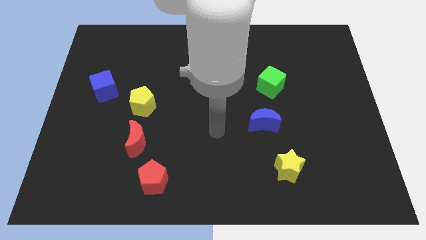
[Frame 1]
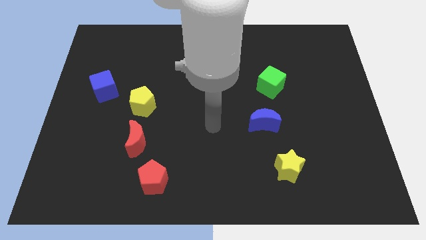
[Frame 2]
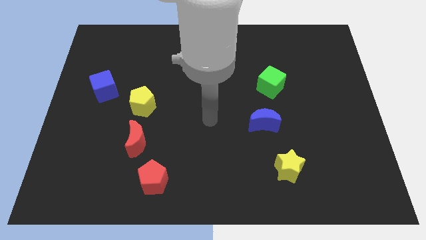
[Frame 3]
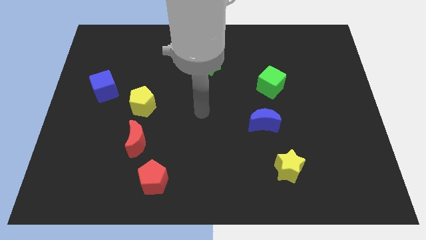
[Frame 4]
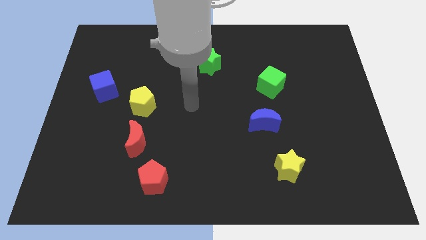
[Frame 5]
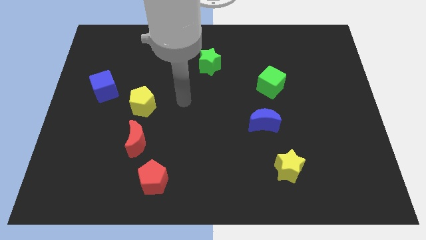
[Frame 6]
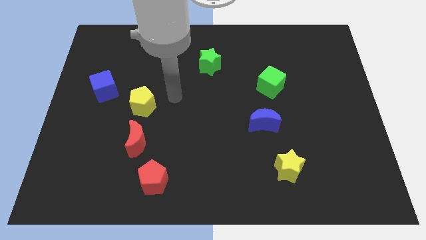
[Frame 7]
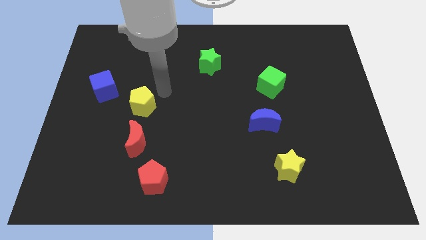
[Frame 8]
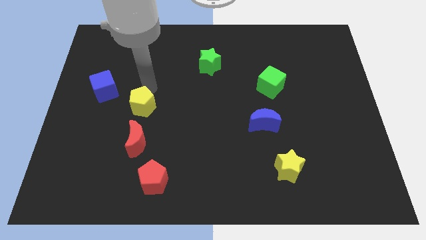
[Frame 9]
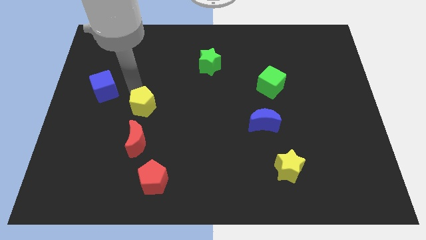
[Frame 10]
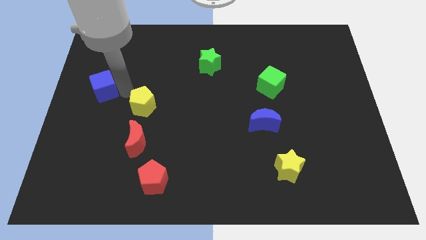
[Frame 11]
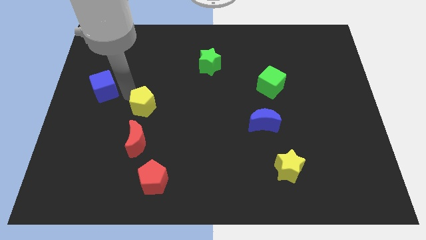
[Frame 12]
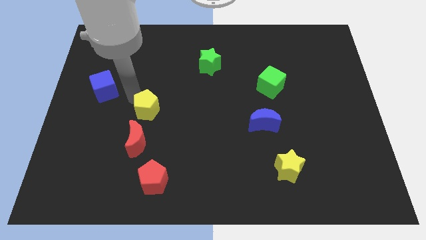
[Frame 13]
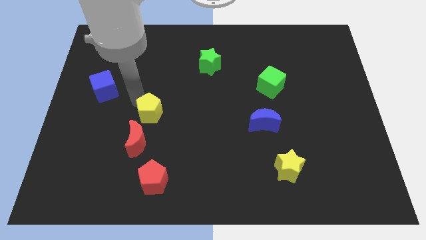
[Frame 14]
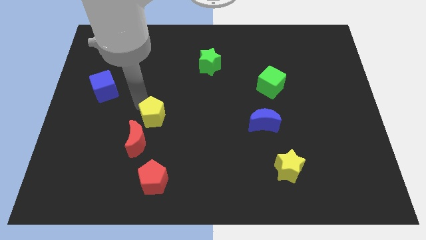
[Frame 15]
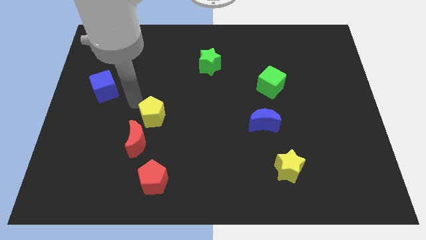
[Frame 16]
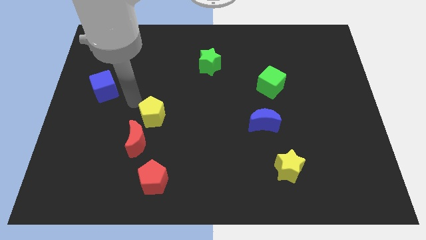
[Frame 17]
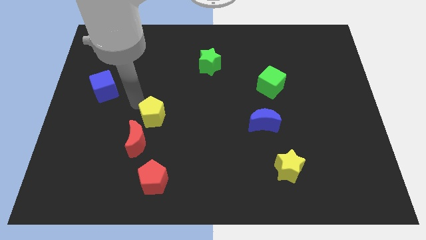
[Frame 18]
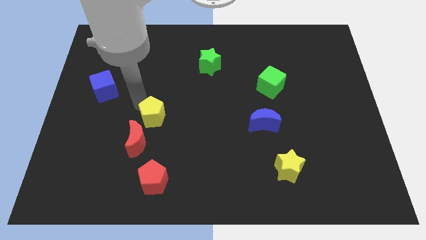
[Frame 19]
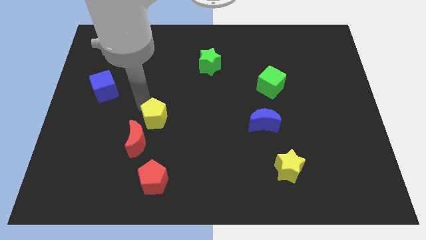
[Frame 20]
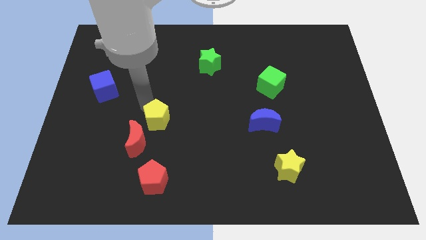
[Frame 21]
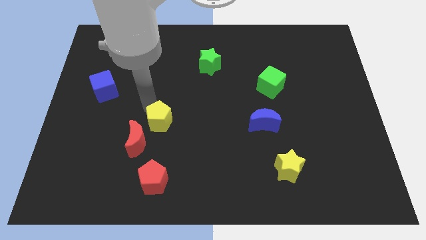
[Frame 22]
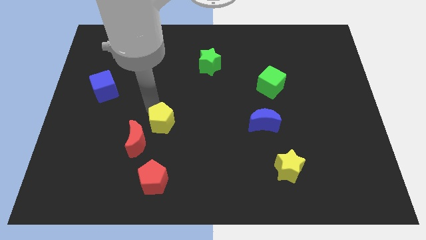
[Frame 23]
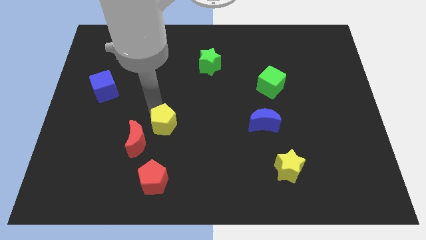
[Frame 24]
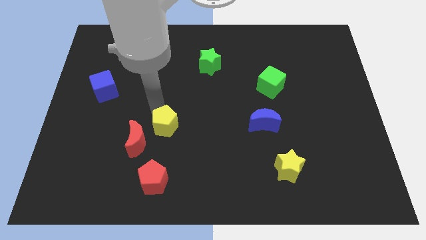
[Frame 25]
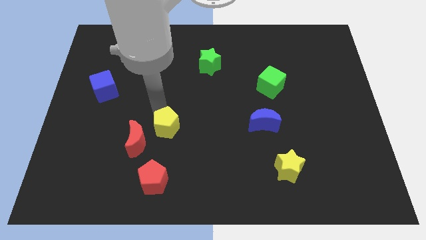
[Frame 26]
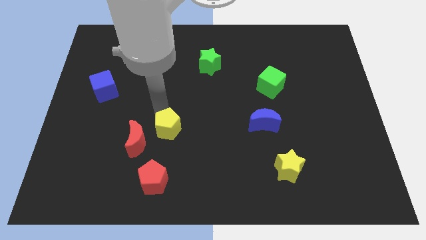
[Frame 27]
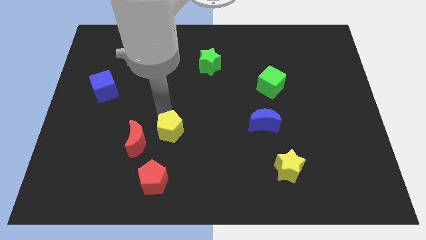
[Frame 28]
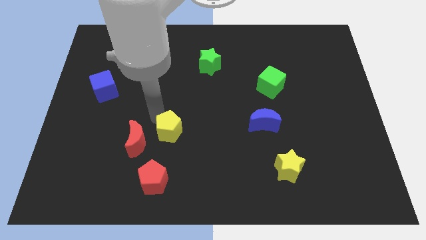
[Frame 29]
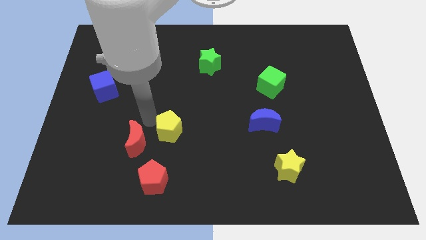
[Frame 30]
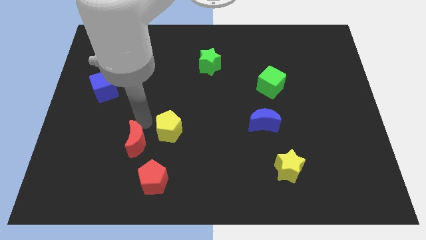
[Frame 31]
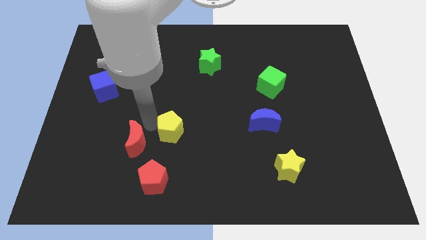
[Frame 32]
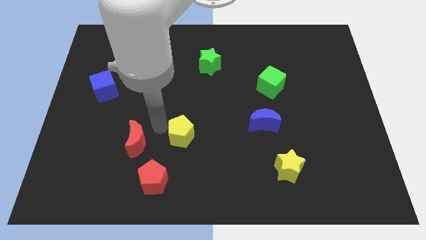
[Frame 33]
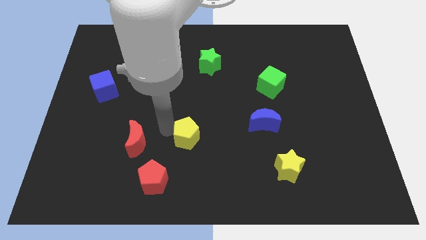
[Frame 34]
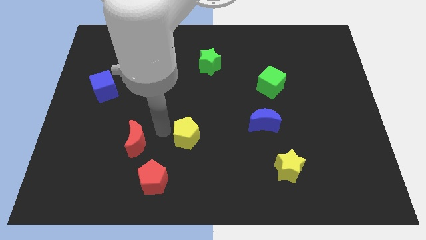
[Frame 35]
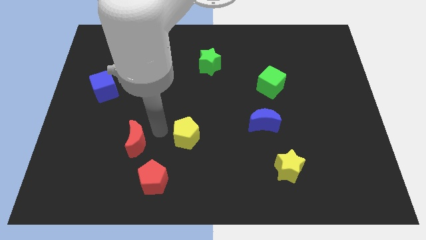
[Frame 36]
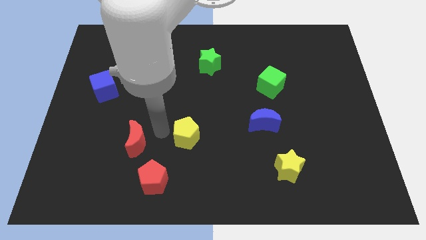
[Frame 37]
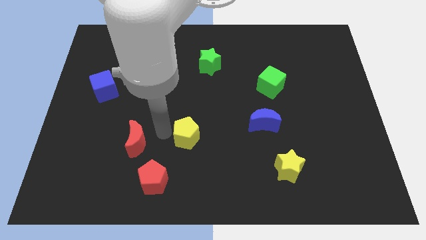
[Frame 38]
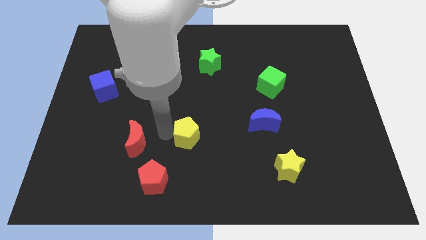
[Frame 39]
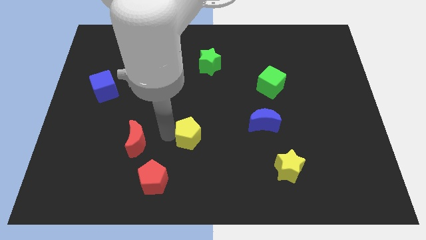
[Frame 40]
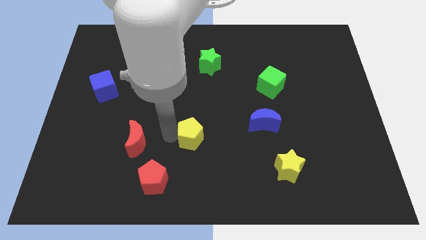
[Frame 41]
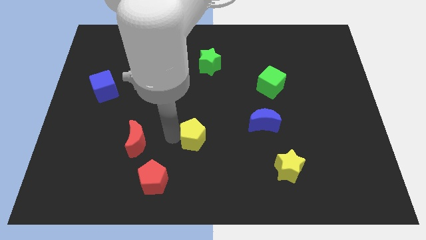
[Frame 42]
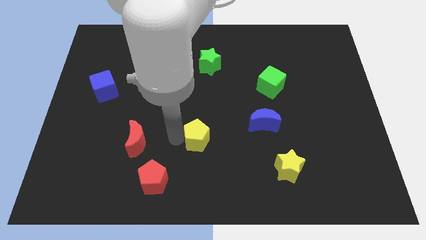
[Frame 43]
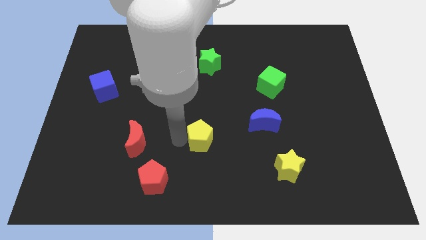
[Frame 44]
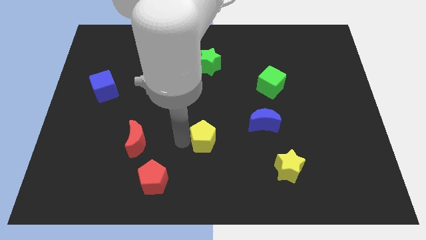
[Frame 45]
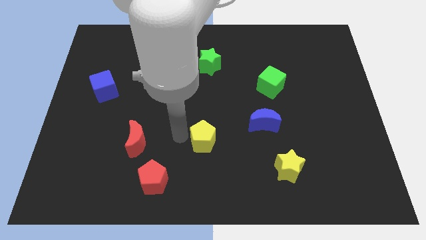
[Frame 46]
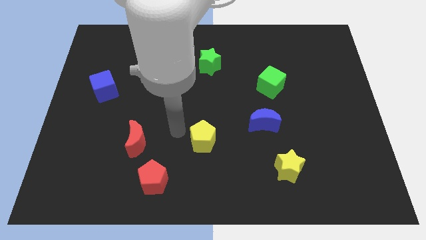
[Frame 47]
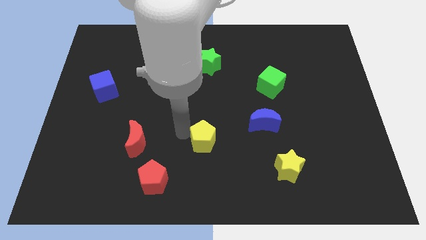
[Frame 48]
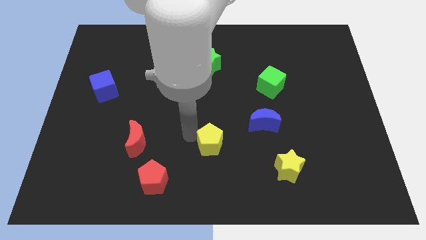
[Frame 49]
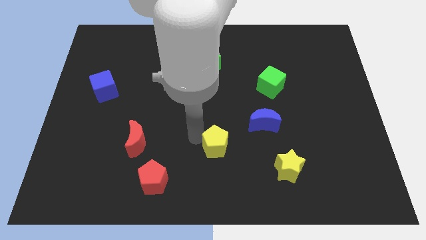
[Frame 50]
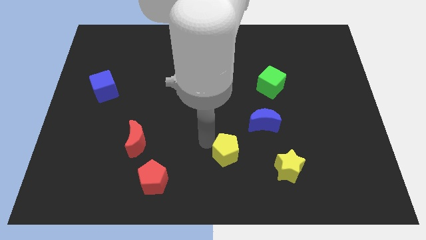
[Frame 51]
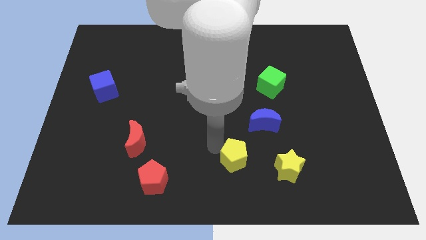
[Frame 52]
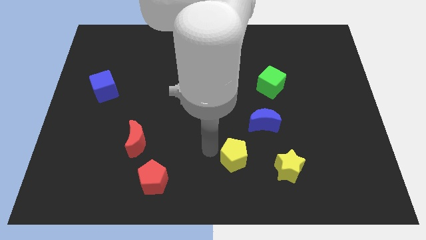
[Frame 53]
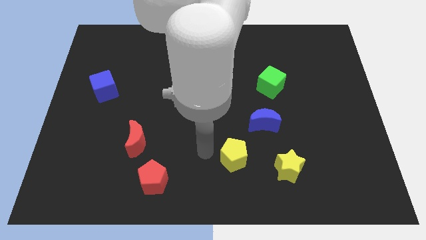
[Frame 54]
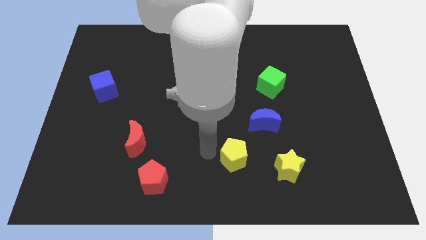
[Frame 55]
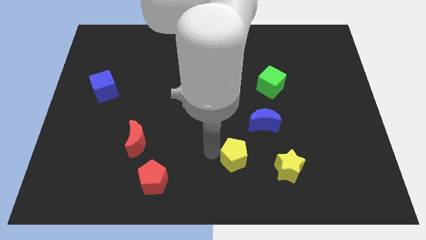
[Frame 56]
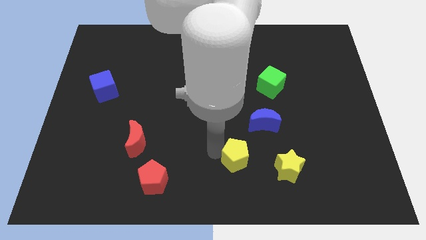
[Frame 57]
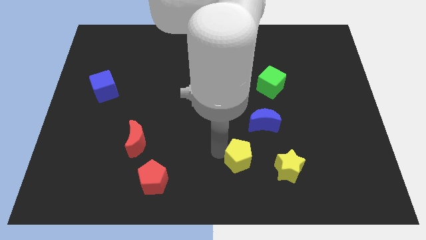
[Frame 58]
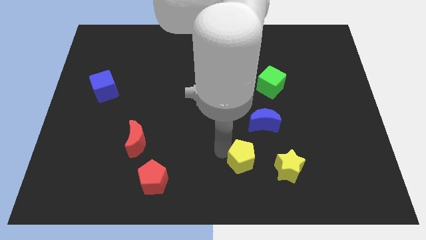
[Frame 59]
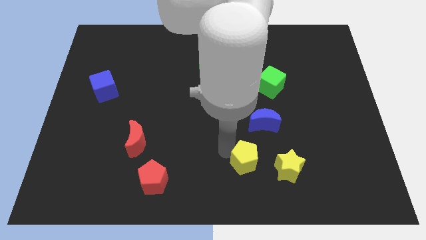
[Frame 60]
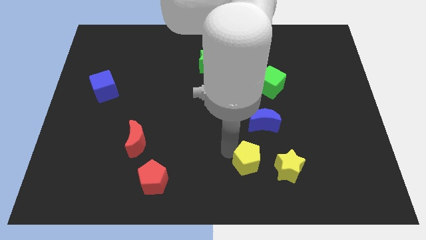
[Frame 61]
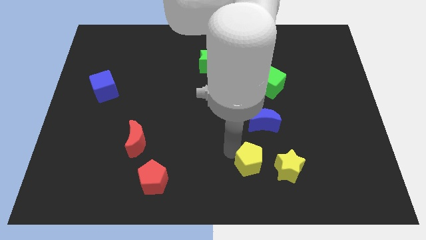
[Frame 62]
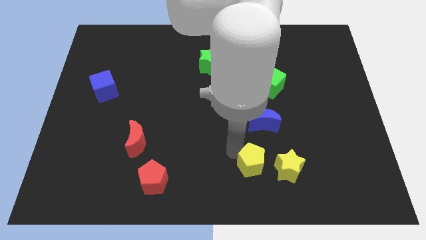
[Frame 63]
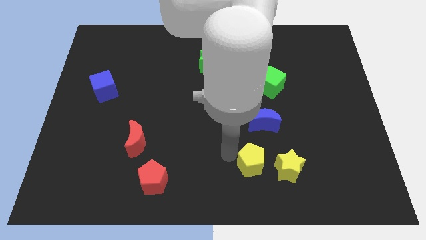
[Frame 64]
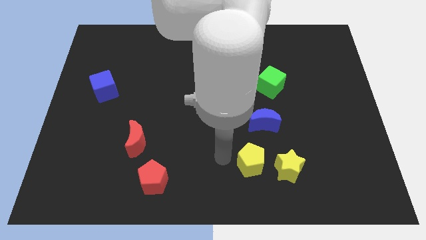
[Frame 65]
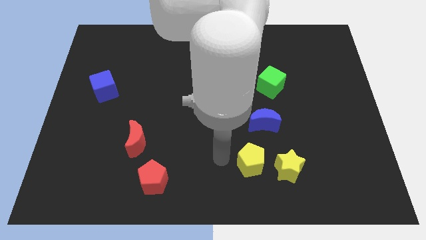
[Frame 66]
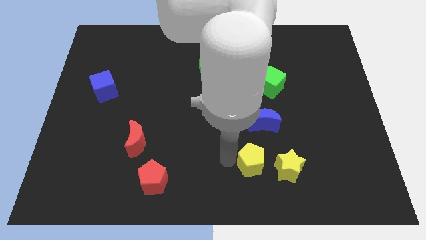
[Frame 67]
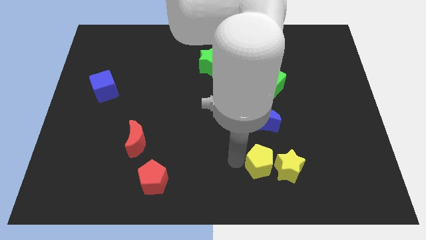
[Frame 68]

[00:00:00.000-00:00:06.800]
slide the yellow pentagon to the yellow star

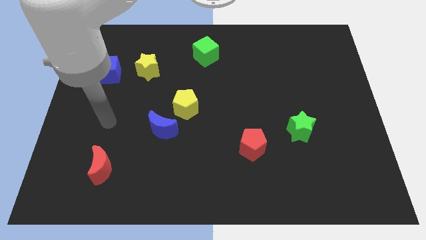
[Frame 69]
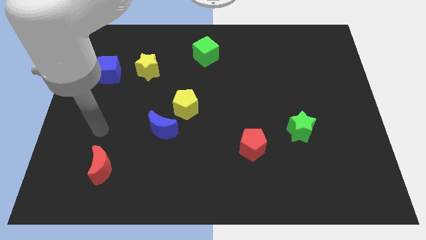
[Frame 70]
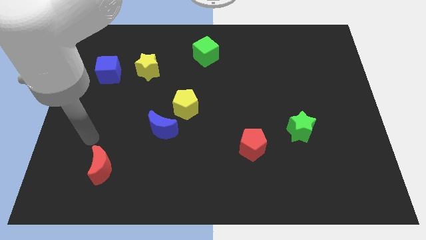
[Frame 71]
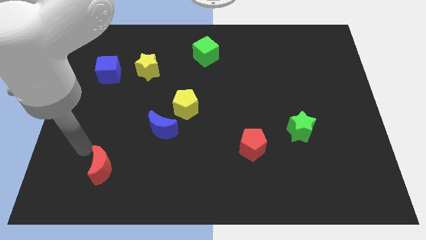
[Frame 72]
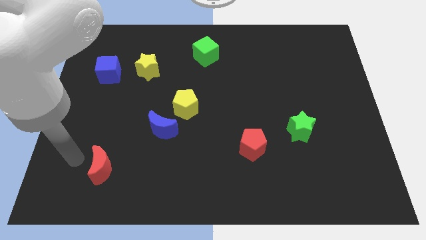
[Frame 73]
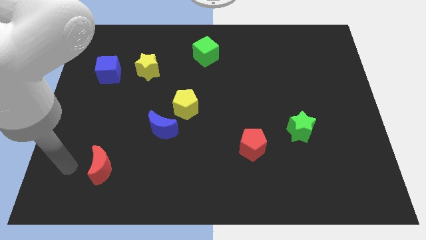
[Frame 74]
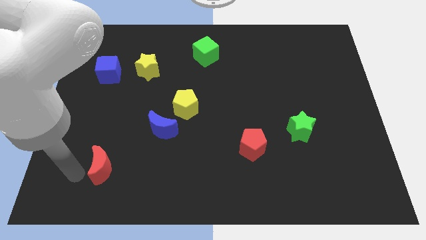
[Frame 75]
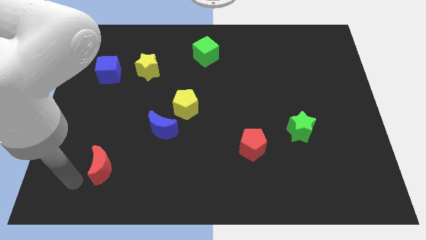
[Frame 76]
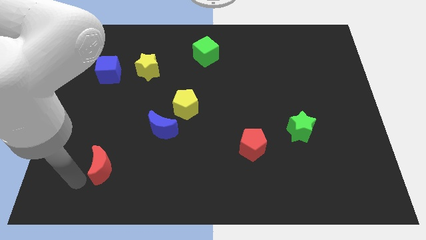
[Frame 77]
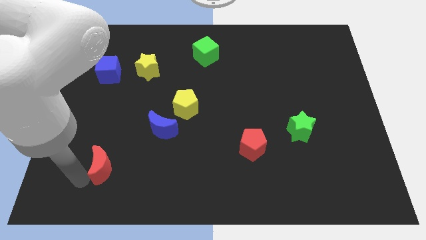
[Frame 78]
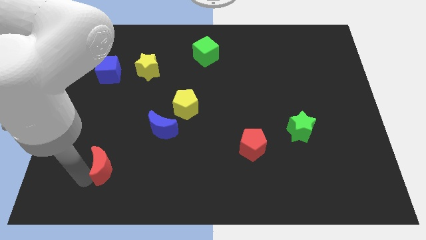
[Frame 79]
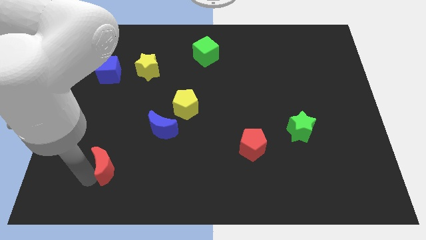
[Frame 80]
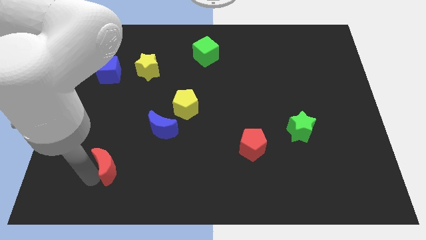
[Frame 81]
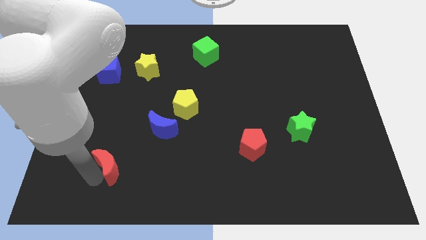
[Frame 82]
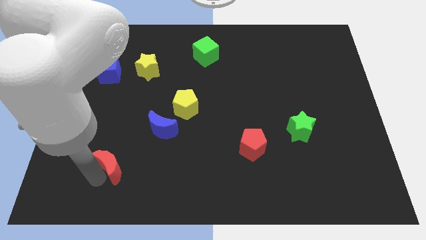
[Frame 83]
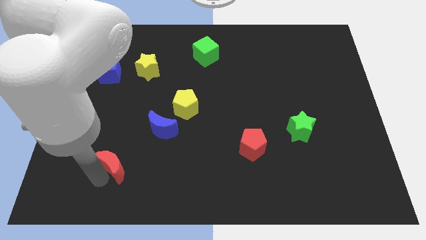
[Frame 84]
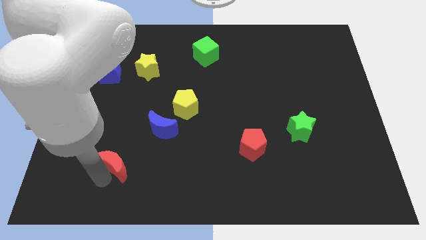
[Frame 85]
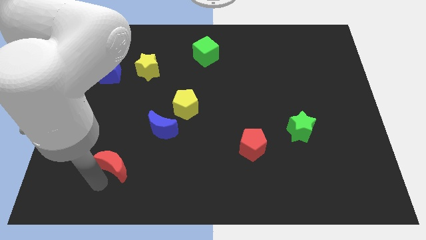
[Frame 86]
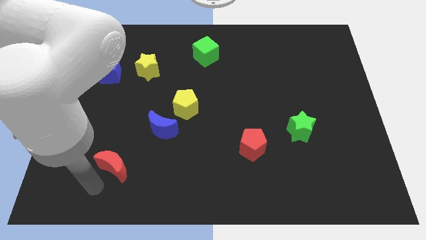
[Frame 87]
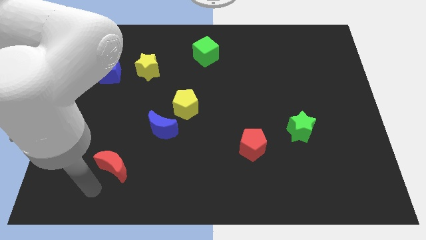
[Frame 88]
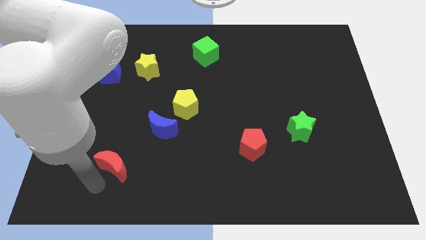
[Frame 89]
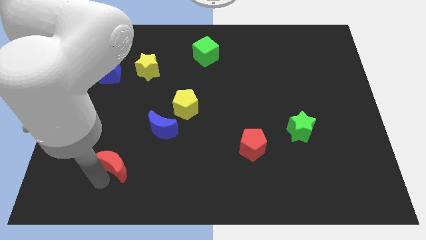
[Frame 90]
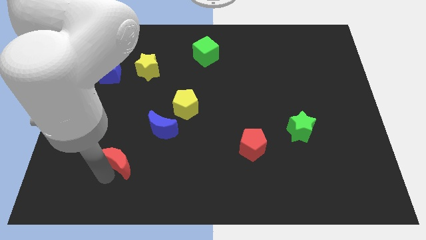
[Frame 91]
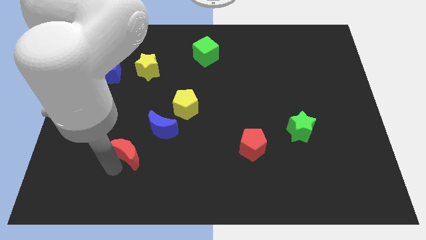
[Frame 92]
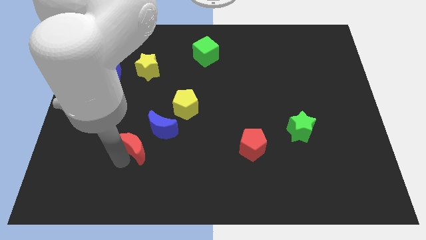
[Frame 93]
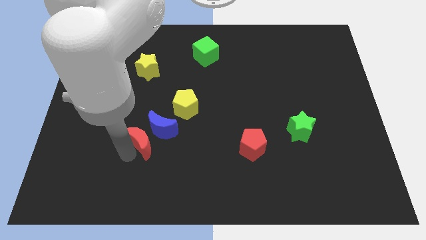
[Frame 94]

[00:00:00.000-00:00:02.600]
push the red moon close to the blue moon
